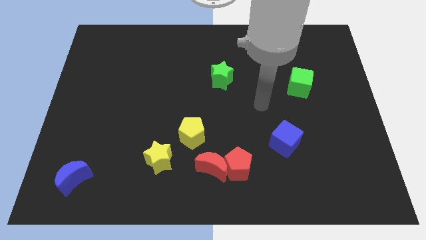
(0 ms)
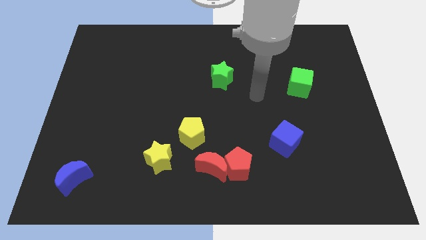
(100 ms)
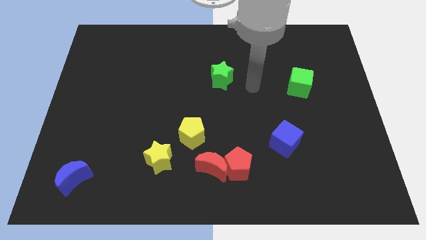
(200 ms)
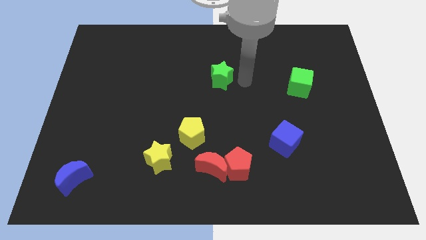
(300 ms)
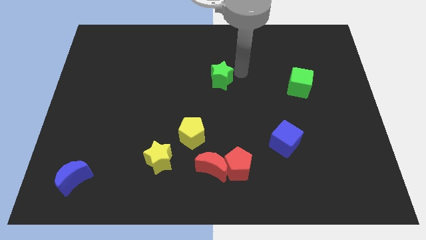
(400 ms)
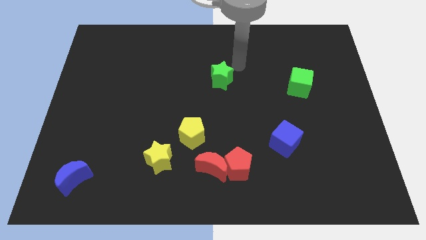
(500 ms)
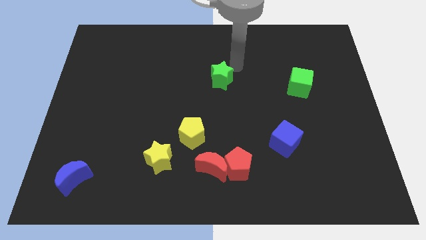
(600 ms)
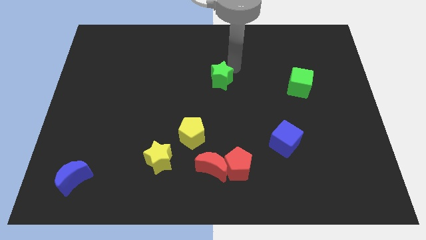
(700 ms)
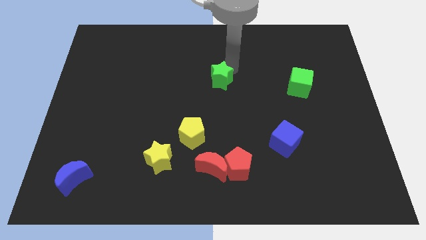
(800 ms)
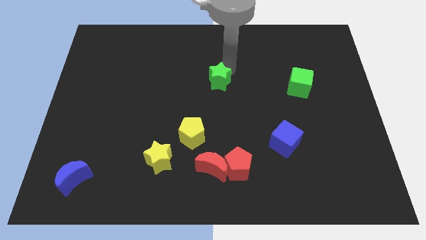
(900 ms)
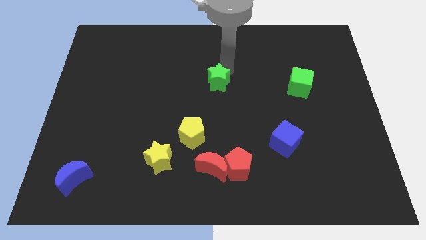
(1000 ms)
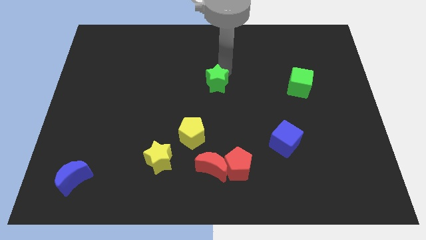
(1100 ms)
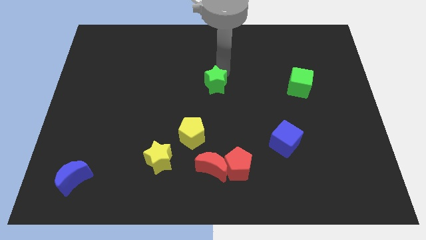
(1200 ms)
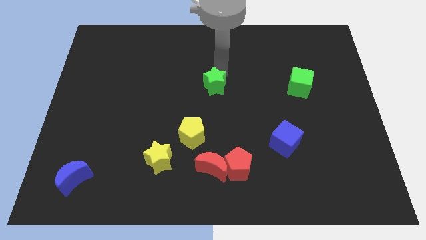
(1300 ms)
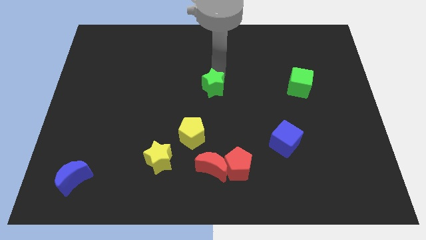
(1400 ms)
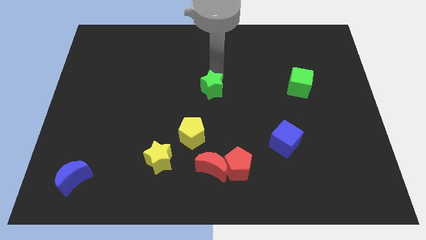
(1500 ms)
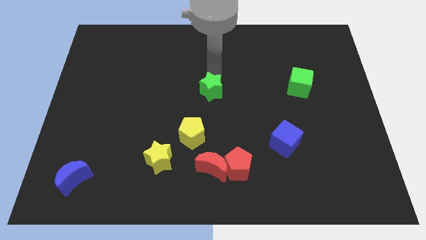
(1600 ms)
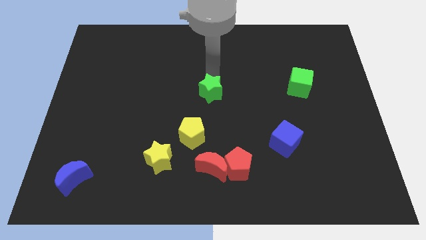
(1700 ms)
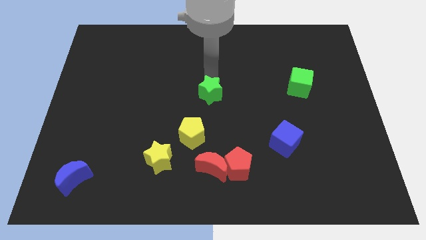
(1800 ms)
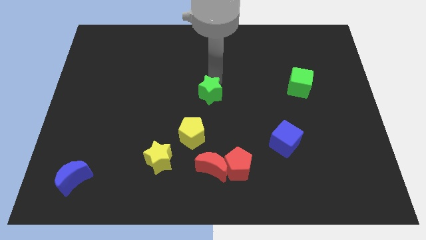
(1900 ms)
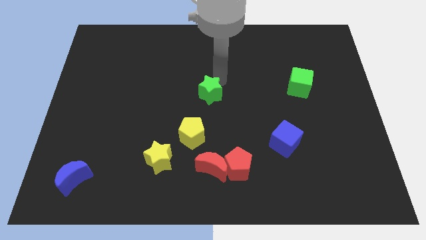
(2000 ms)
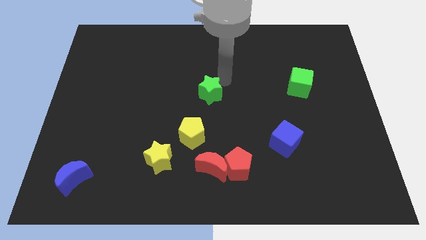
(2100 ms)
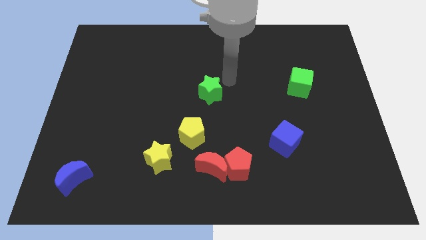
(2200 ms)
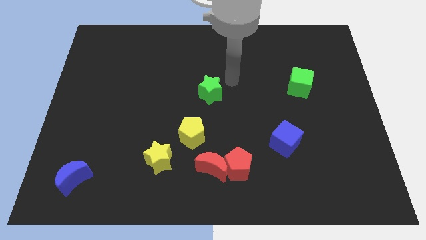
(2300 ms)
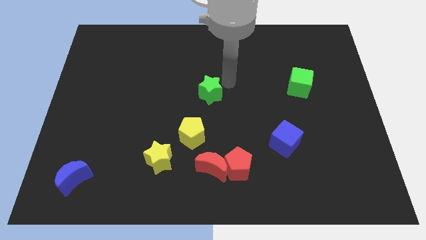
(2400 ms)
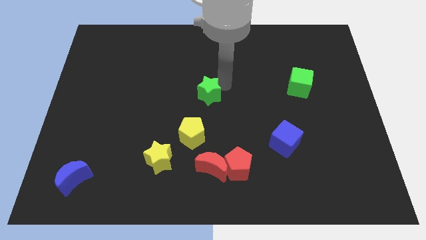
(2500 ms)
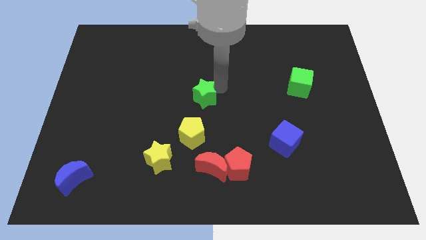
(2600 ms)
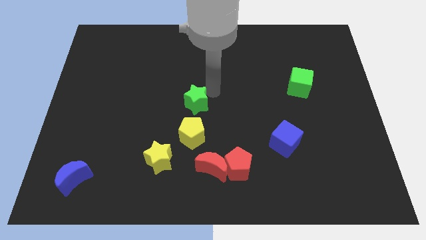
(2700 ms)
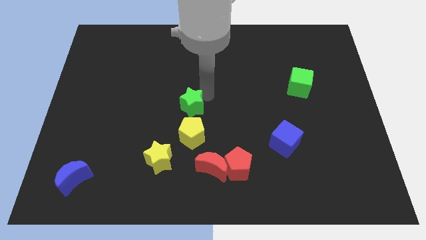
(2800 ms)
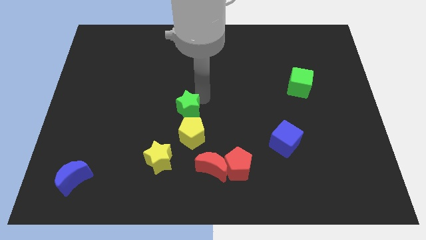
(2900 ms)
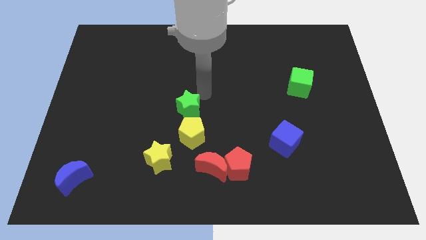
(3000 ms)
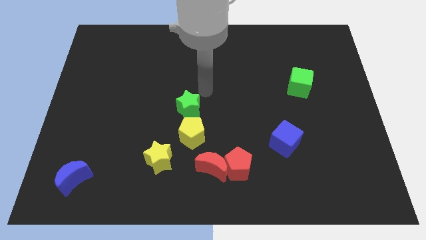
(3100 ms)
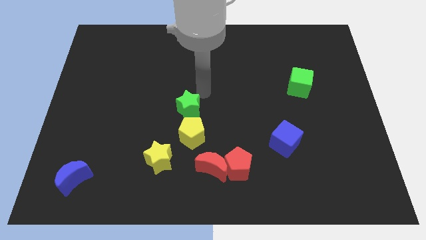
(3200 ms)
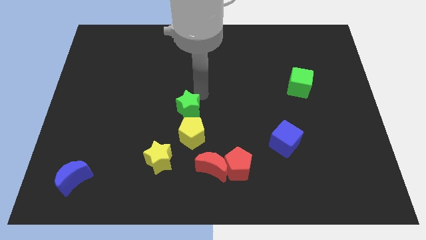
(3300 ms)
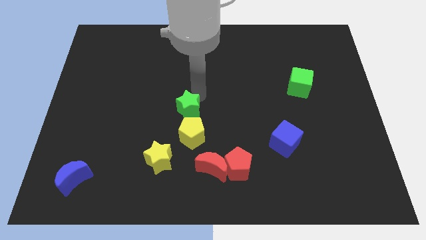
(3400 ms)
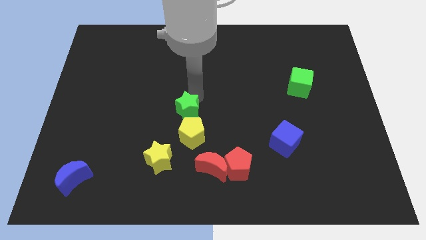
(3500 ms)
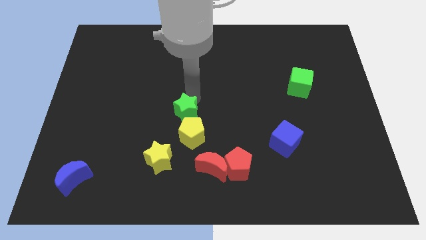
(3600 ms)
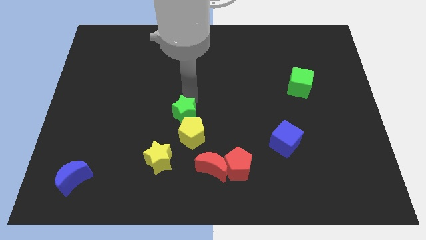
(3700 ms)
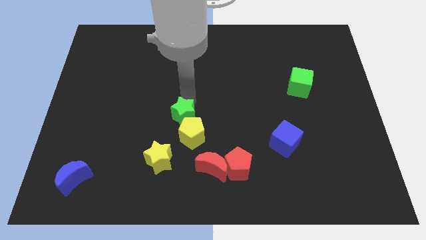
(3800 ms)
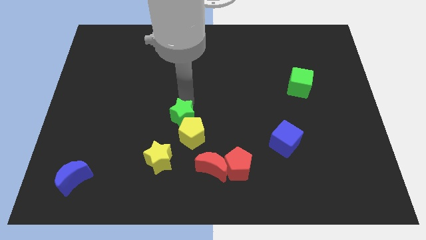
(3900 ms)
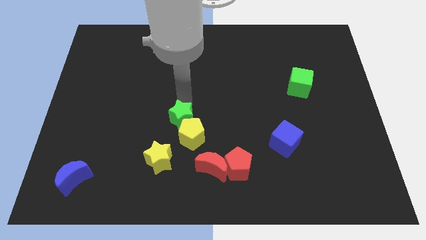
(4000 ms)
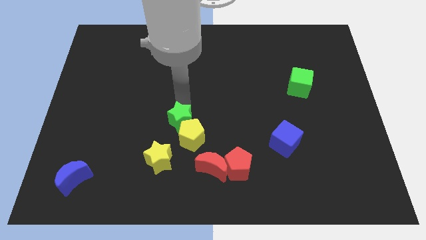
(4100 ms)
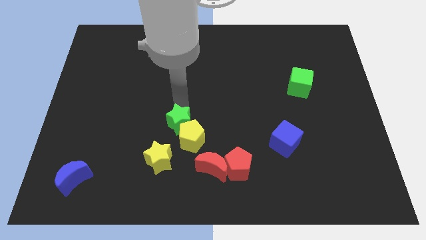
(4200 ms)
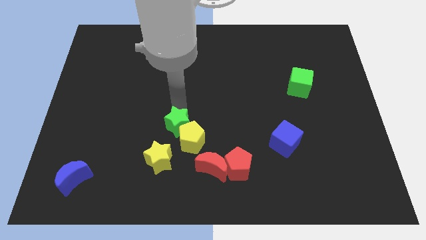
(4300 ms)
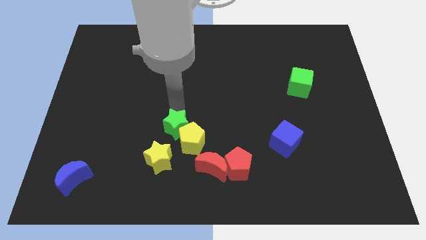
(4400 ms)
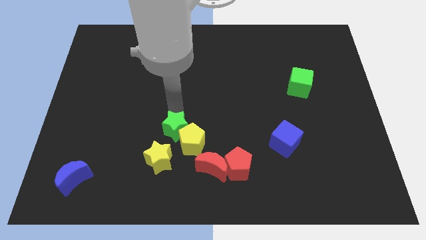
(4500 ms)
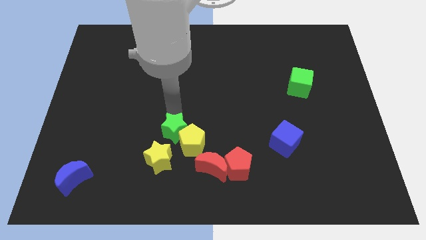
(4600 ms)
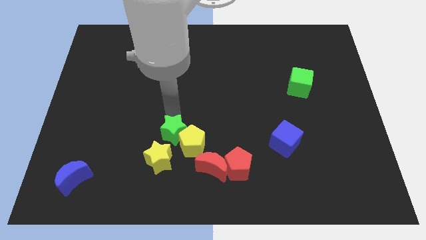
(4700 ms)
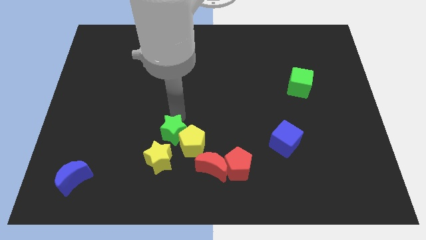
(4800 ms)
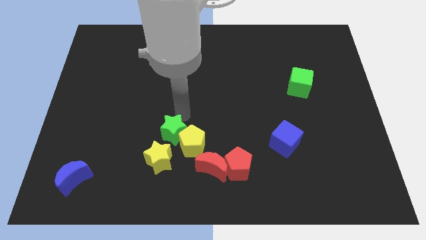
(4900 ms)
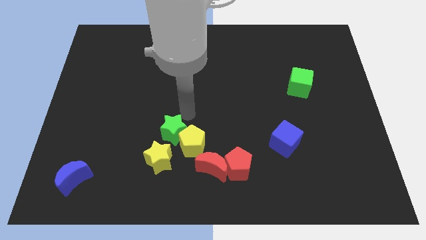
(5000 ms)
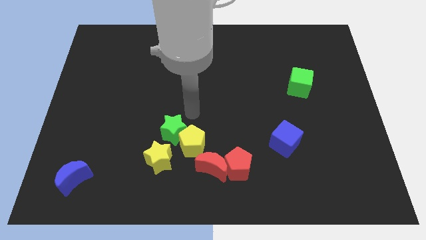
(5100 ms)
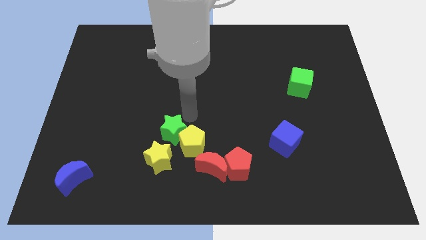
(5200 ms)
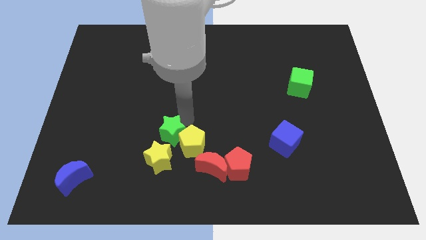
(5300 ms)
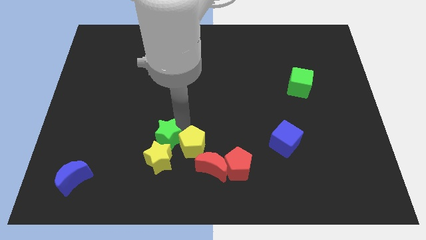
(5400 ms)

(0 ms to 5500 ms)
put the green star towards the yellow star
